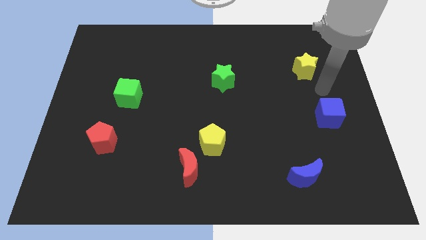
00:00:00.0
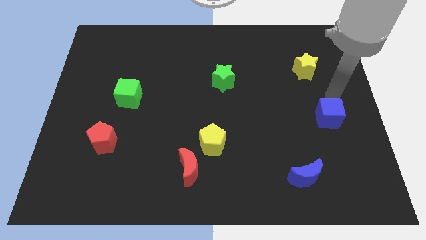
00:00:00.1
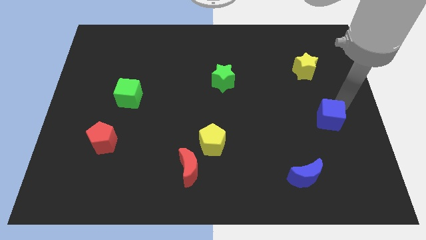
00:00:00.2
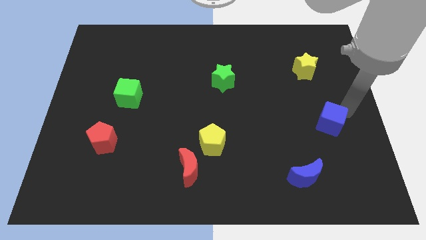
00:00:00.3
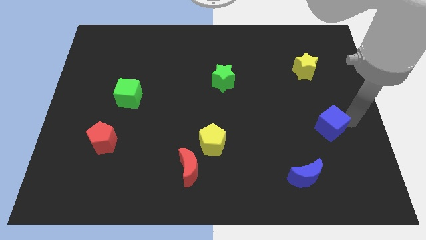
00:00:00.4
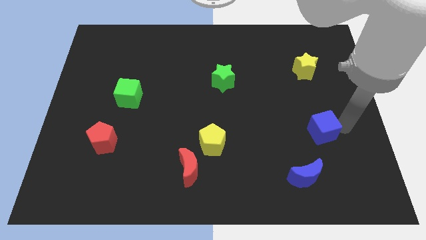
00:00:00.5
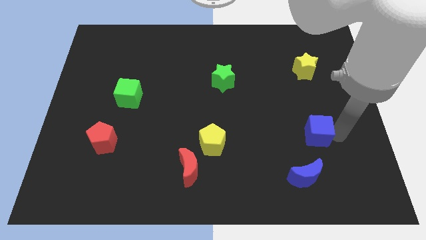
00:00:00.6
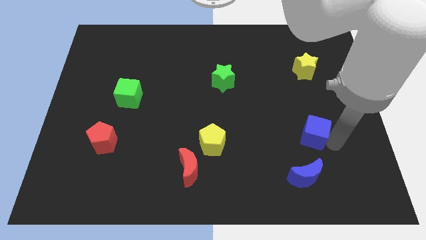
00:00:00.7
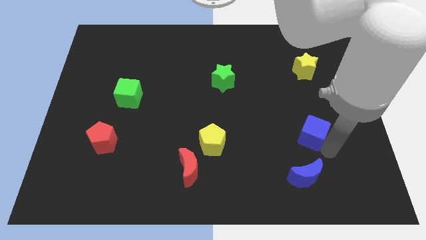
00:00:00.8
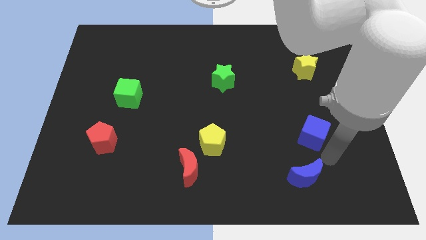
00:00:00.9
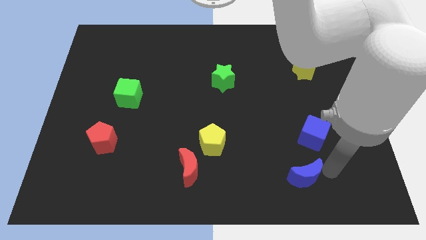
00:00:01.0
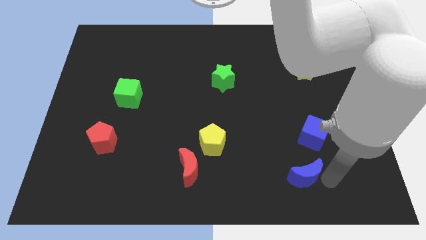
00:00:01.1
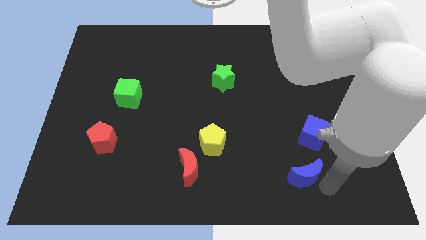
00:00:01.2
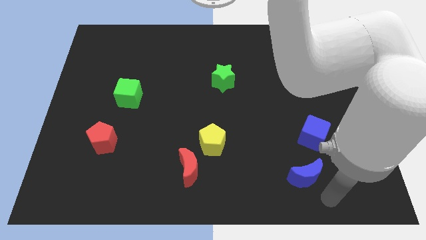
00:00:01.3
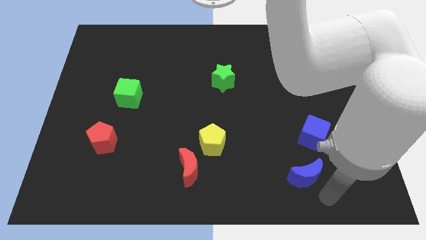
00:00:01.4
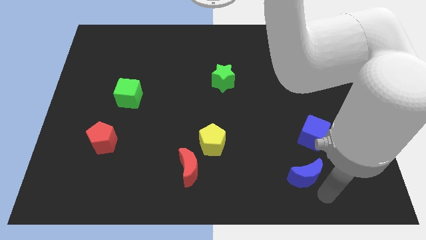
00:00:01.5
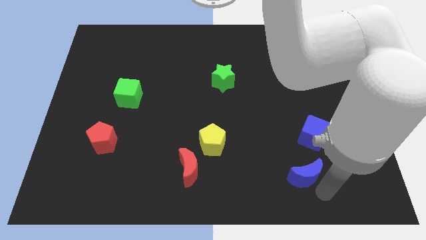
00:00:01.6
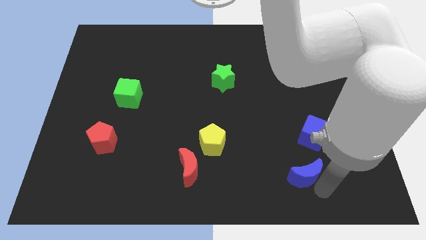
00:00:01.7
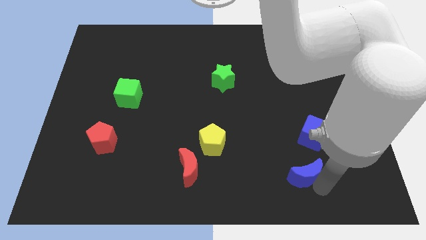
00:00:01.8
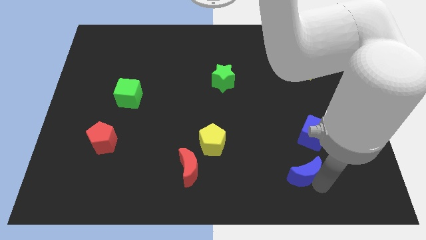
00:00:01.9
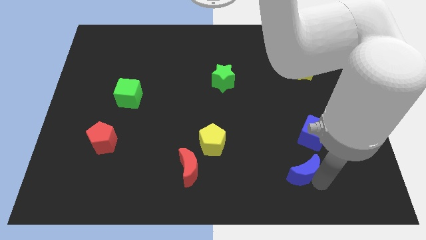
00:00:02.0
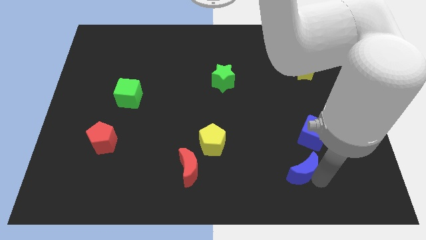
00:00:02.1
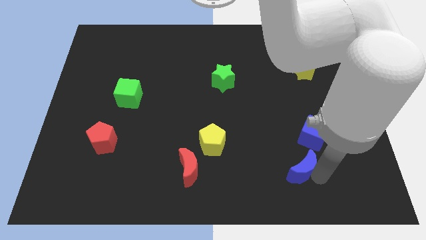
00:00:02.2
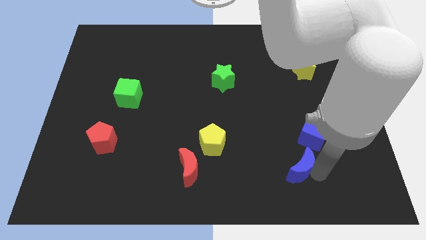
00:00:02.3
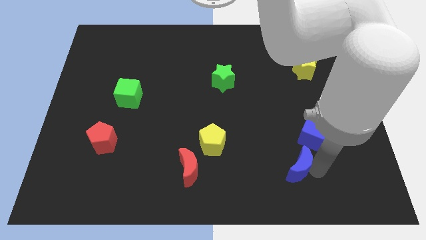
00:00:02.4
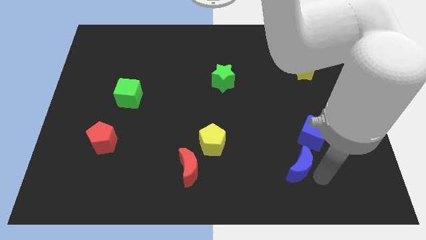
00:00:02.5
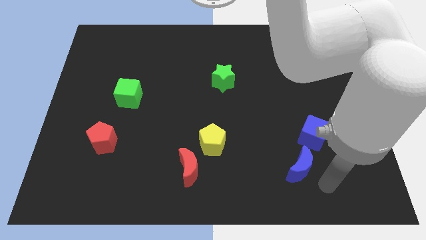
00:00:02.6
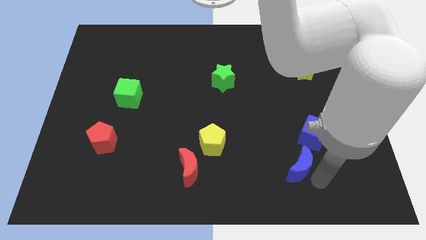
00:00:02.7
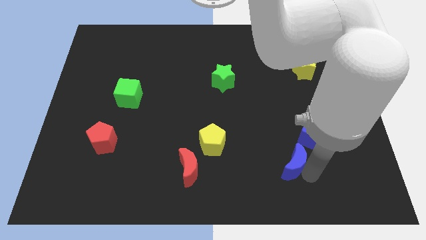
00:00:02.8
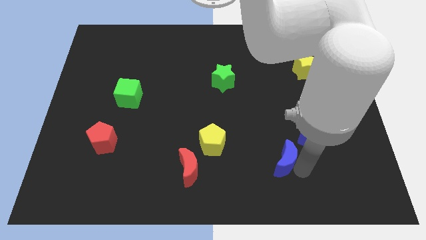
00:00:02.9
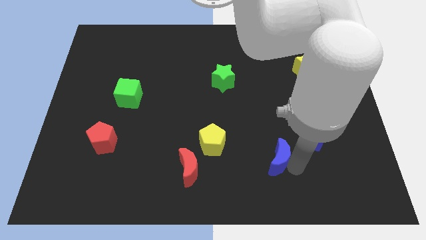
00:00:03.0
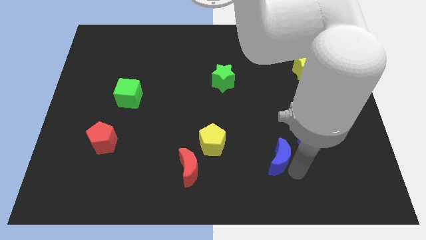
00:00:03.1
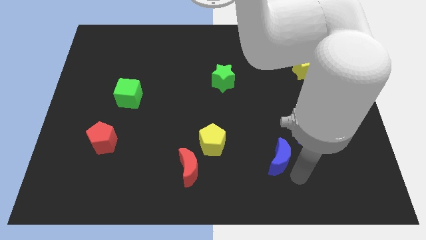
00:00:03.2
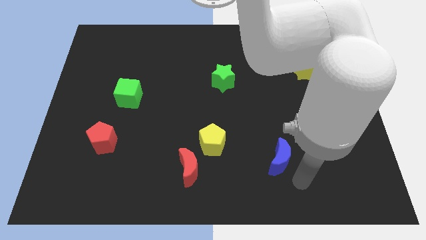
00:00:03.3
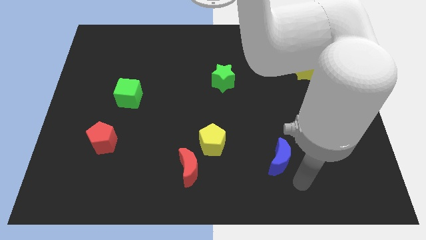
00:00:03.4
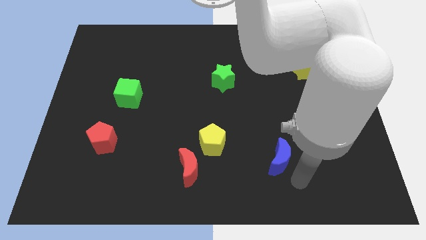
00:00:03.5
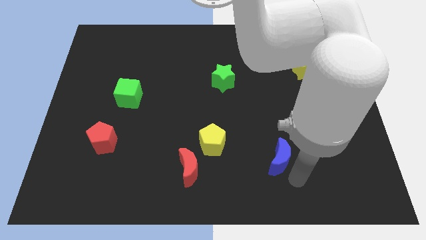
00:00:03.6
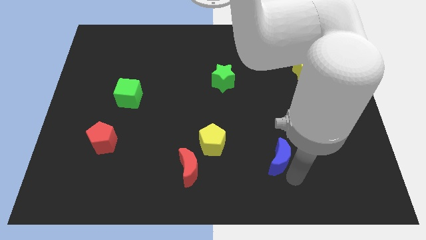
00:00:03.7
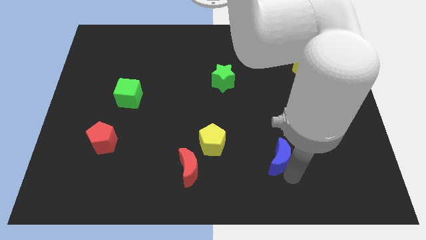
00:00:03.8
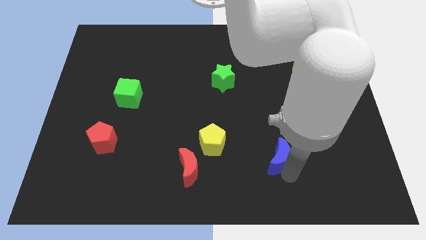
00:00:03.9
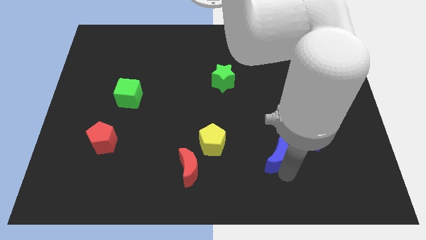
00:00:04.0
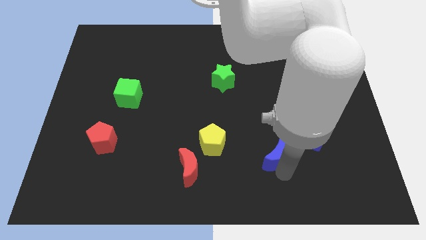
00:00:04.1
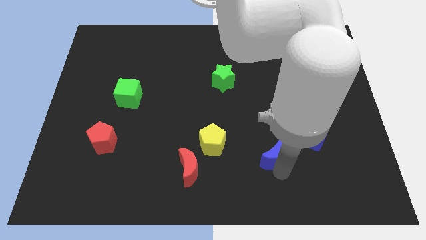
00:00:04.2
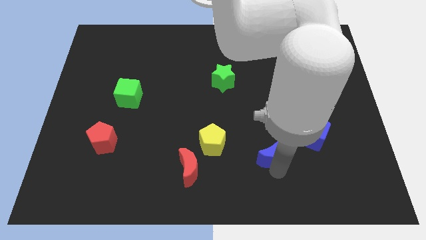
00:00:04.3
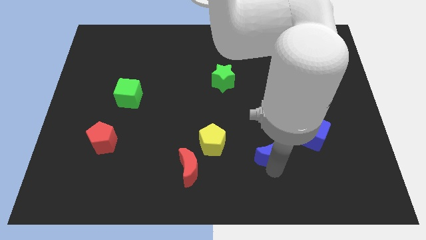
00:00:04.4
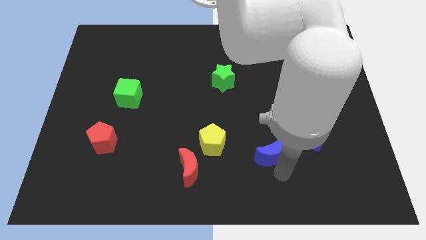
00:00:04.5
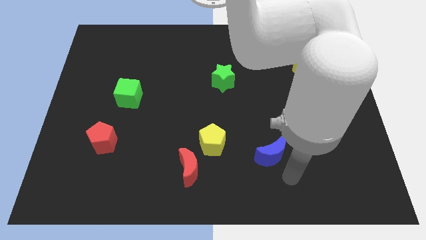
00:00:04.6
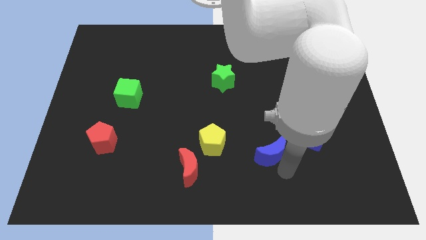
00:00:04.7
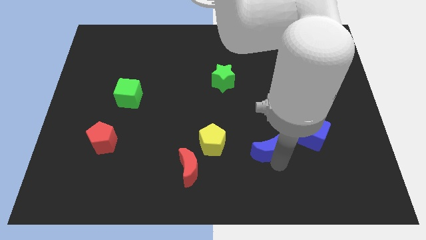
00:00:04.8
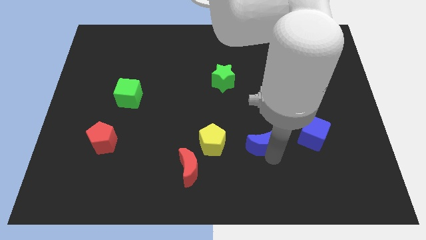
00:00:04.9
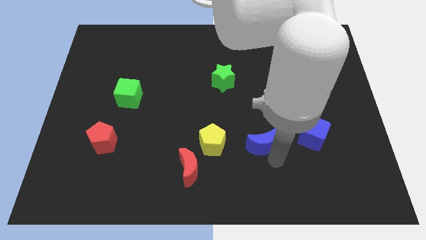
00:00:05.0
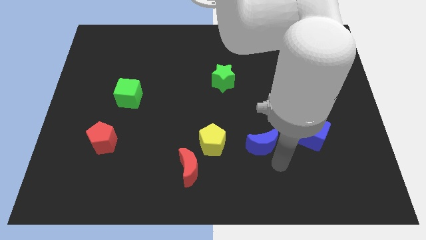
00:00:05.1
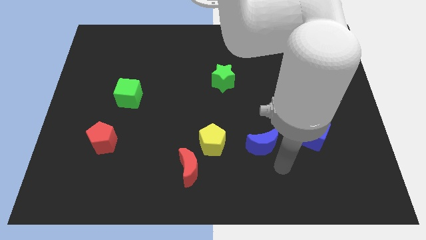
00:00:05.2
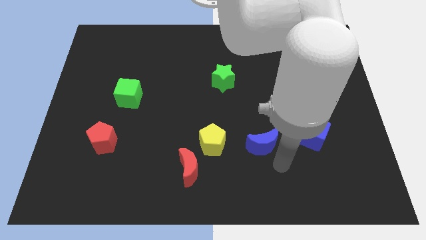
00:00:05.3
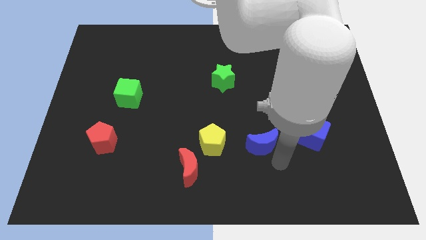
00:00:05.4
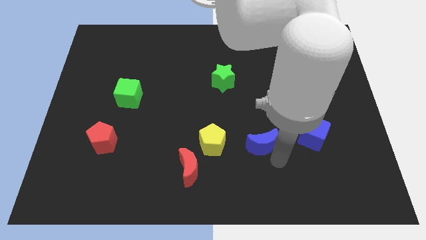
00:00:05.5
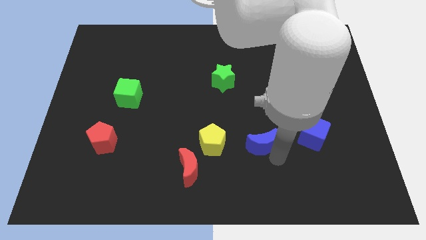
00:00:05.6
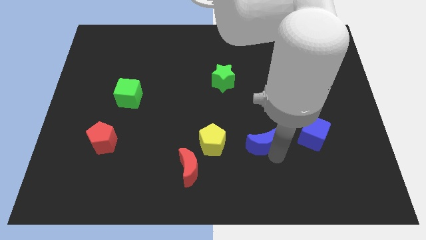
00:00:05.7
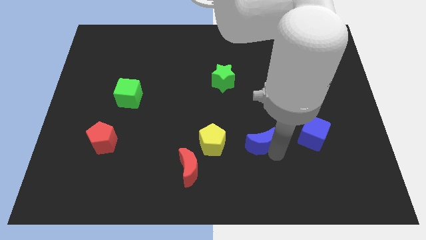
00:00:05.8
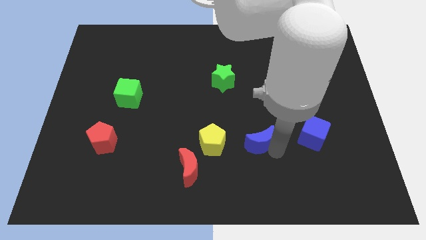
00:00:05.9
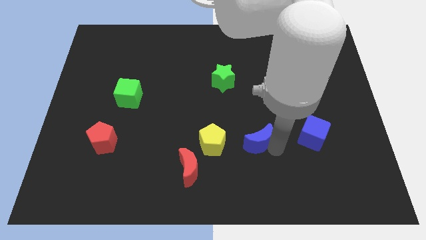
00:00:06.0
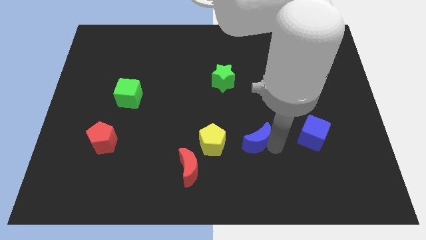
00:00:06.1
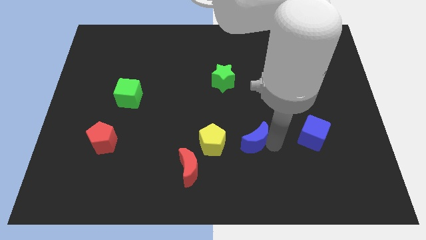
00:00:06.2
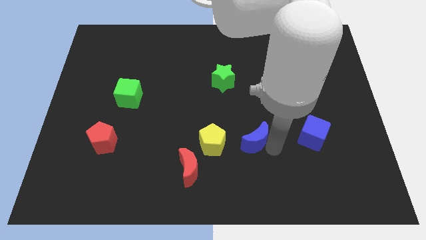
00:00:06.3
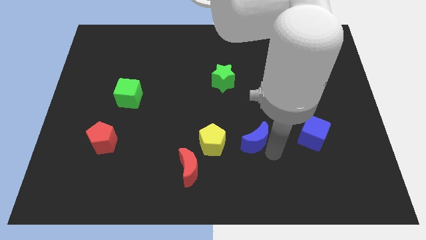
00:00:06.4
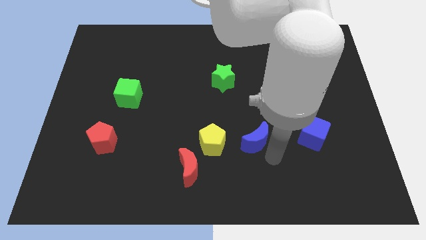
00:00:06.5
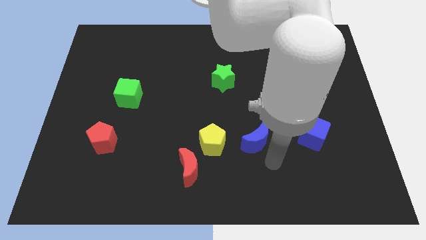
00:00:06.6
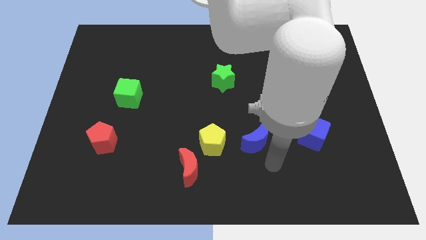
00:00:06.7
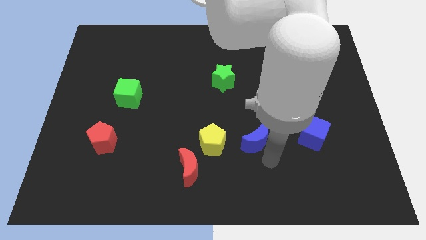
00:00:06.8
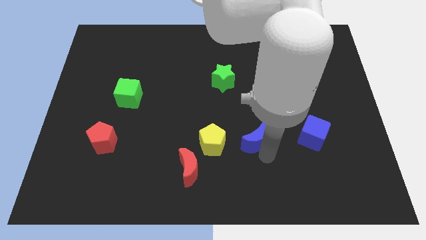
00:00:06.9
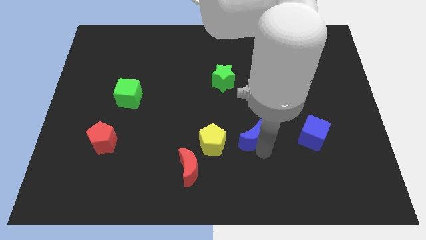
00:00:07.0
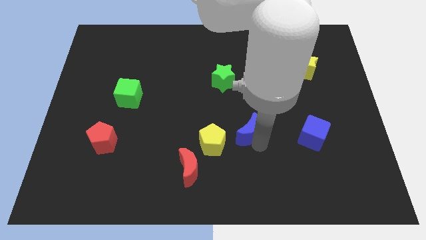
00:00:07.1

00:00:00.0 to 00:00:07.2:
put the blue moon to the middle of the board
